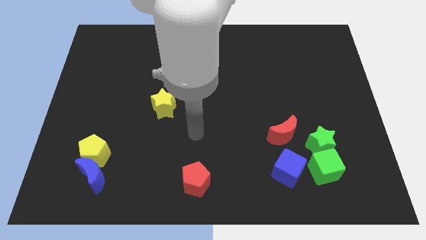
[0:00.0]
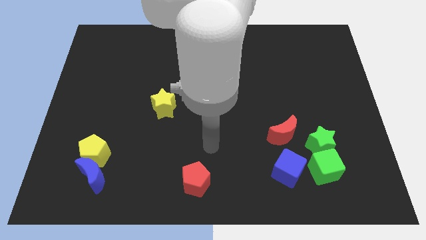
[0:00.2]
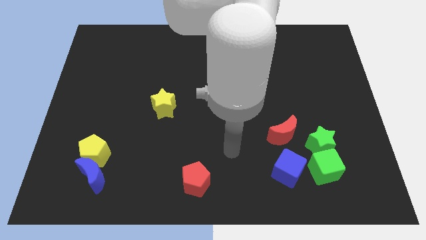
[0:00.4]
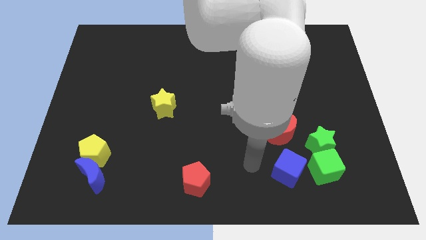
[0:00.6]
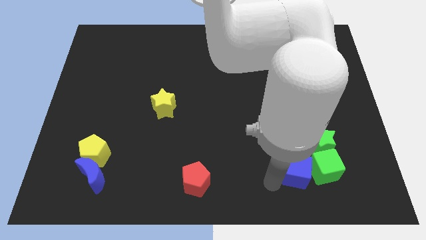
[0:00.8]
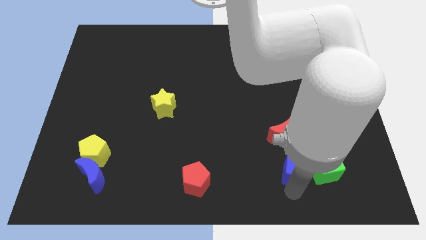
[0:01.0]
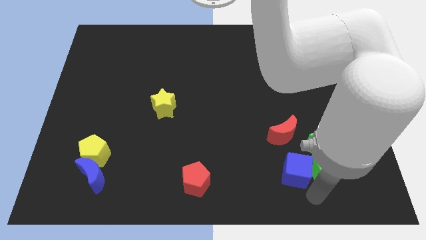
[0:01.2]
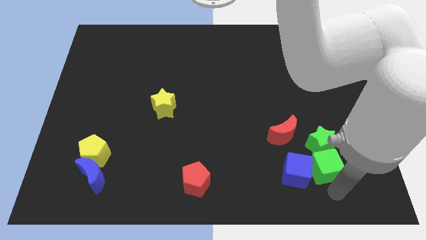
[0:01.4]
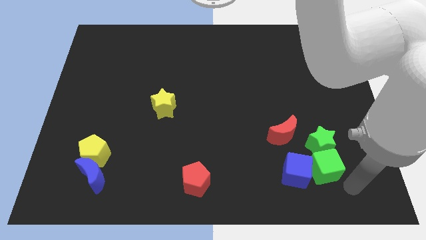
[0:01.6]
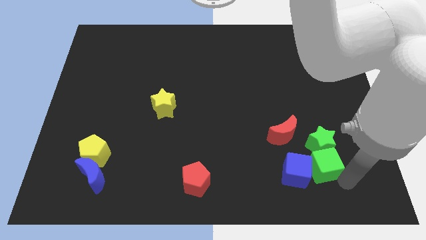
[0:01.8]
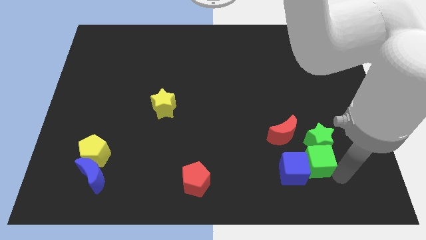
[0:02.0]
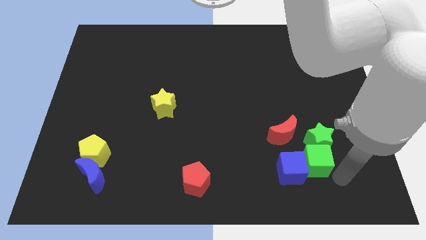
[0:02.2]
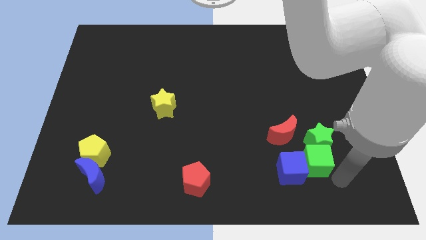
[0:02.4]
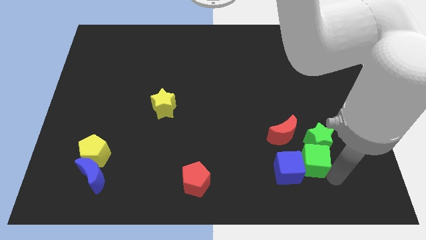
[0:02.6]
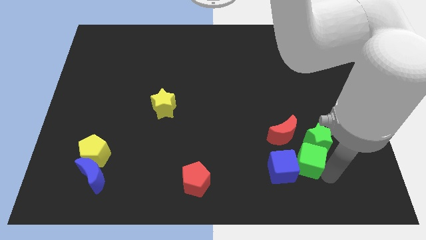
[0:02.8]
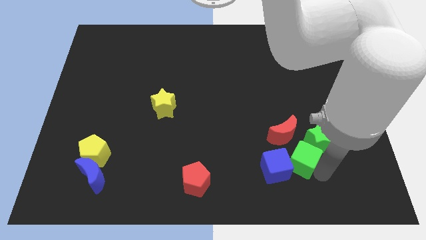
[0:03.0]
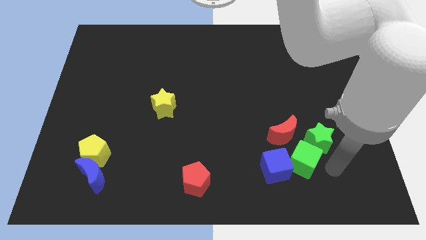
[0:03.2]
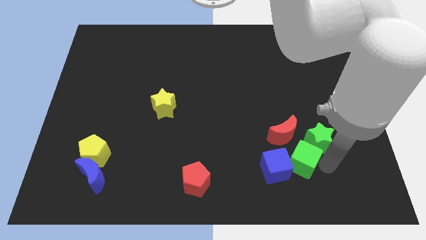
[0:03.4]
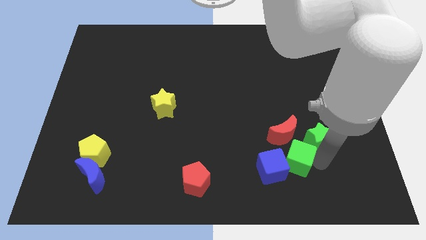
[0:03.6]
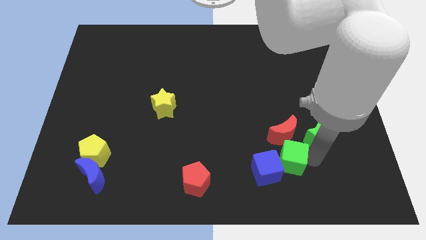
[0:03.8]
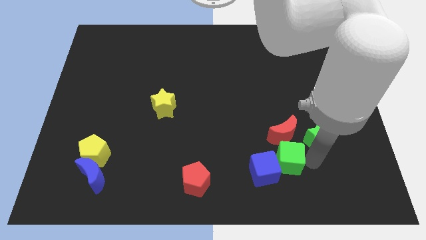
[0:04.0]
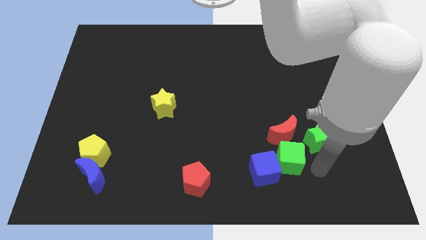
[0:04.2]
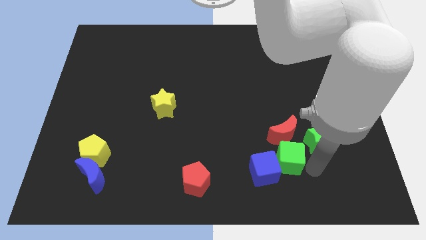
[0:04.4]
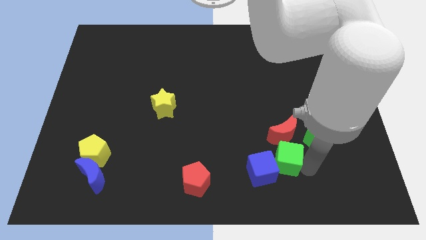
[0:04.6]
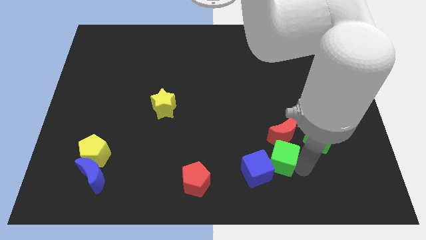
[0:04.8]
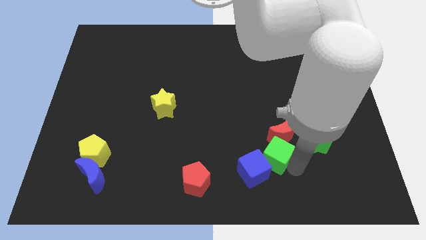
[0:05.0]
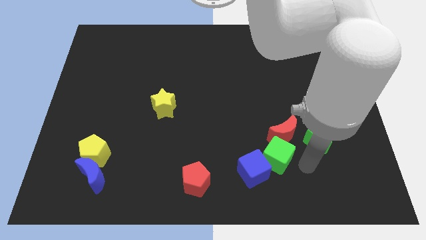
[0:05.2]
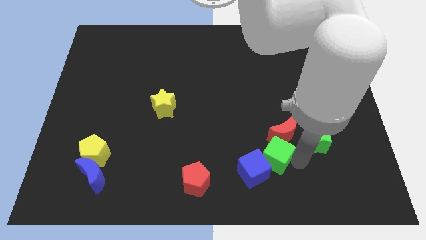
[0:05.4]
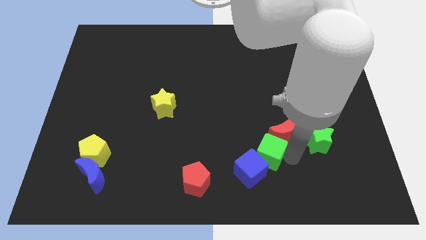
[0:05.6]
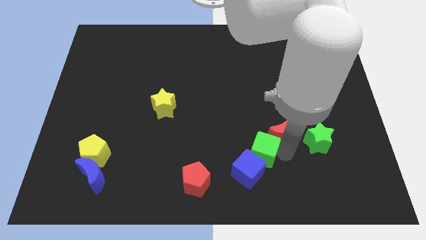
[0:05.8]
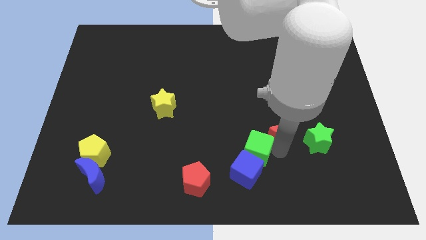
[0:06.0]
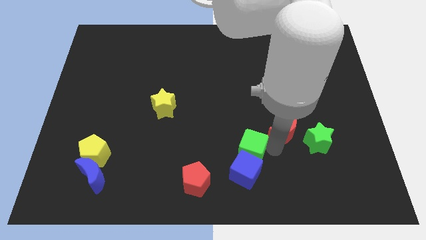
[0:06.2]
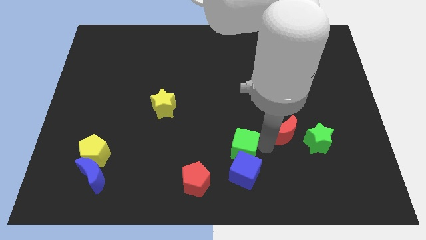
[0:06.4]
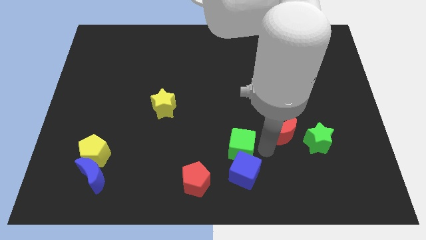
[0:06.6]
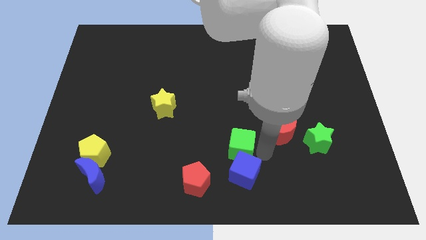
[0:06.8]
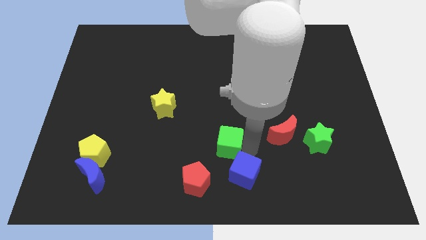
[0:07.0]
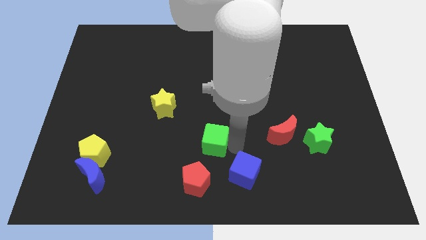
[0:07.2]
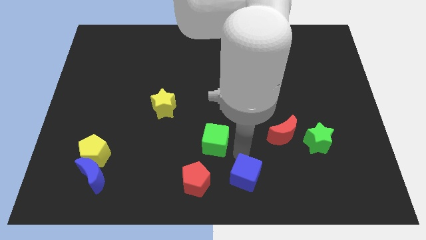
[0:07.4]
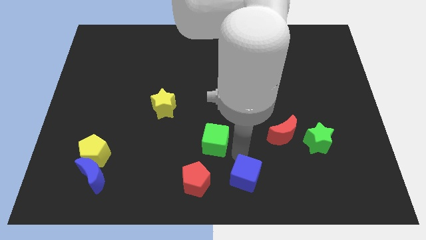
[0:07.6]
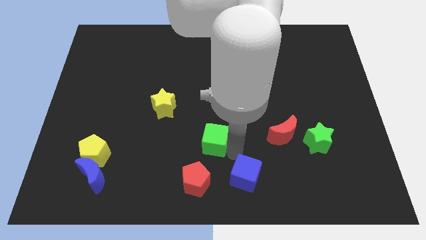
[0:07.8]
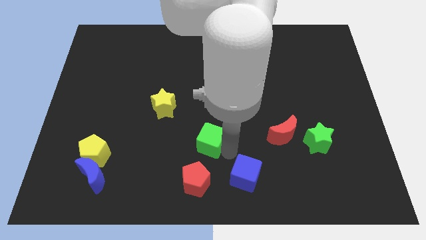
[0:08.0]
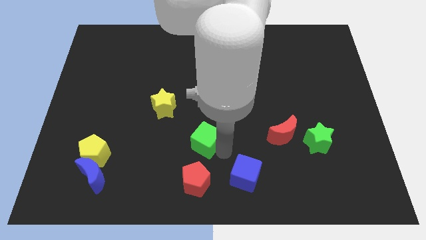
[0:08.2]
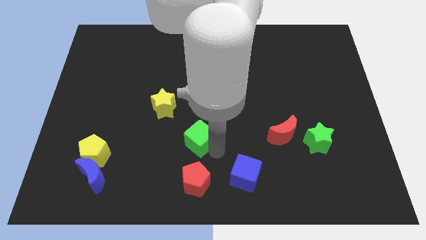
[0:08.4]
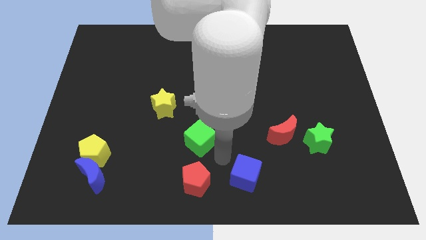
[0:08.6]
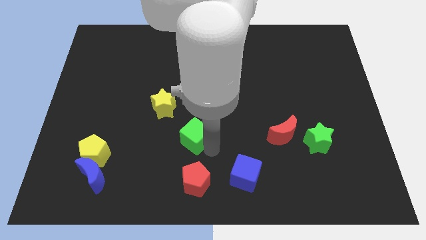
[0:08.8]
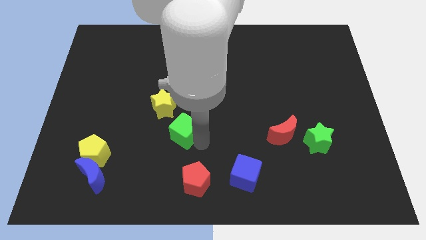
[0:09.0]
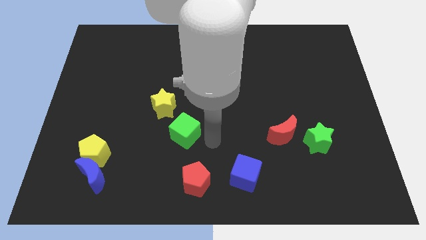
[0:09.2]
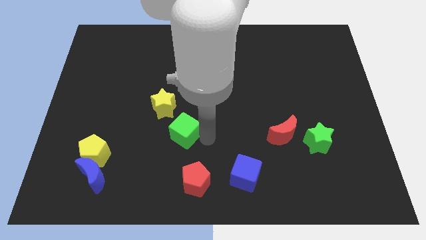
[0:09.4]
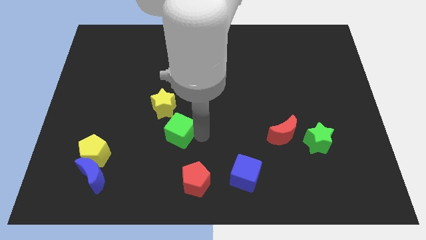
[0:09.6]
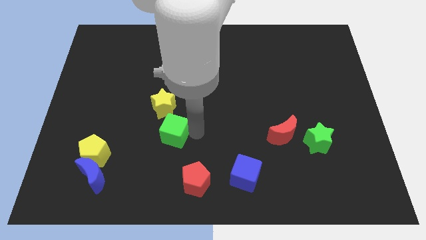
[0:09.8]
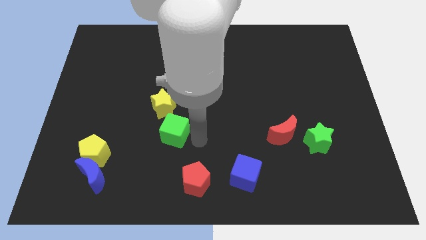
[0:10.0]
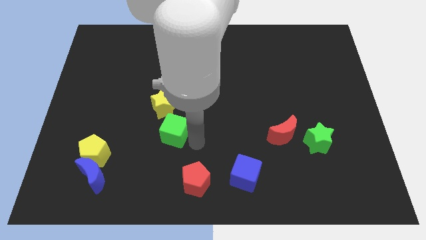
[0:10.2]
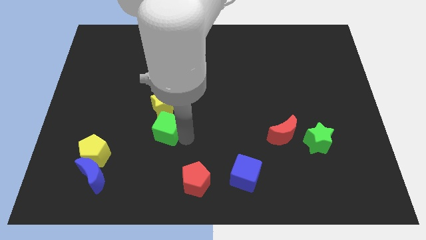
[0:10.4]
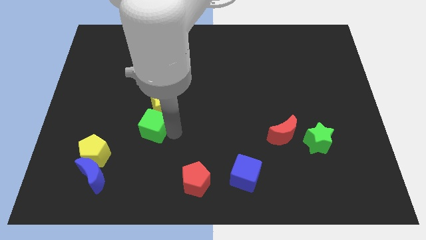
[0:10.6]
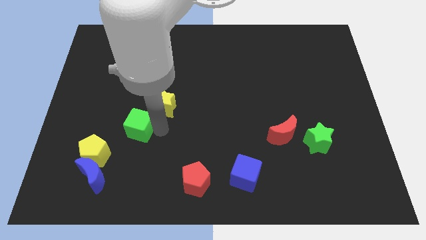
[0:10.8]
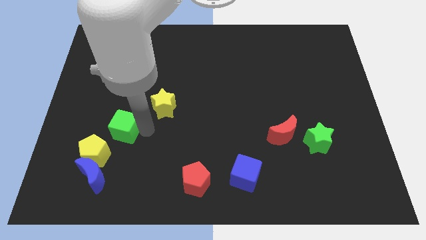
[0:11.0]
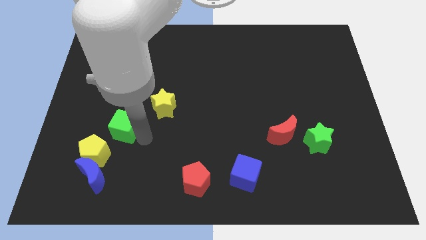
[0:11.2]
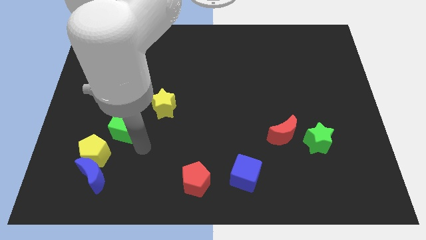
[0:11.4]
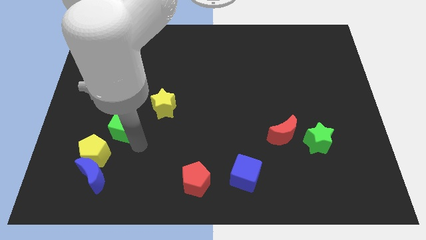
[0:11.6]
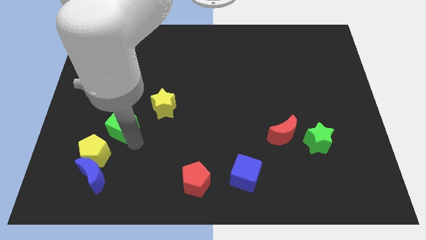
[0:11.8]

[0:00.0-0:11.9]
put the green cube to the top side of the yellow pentagon

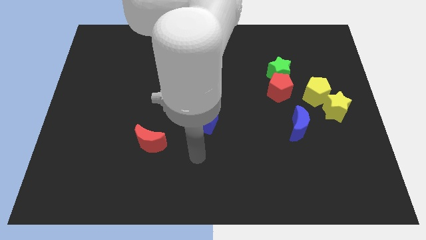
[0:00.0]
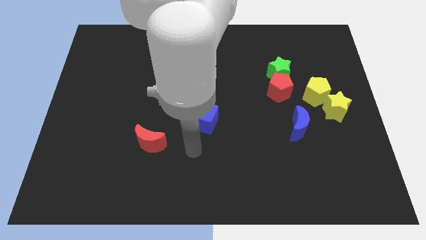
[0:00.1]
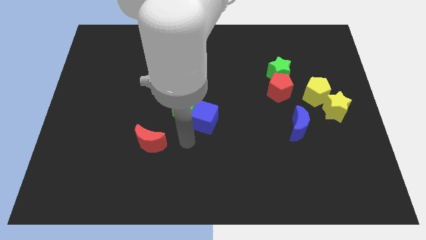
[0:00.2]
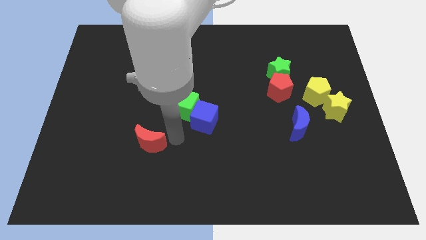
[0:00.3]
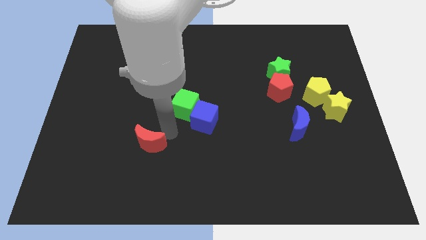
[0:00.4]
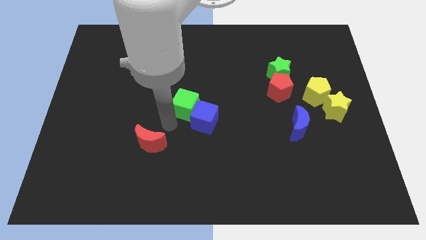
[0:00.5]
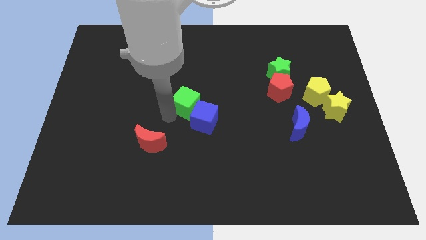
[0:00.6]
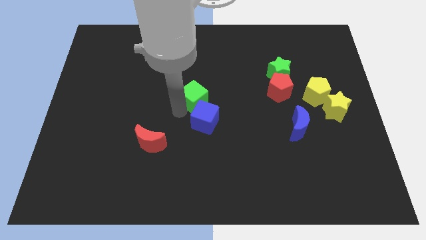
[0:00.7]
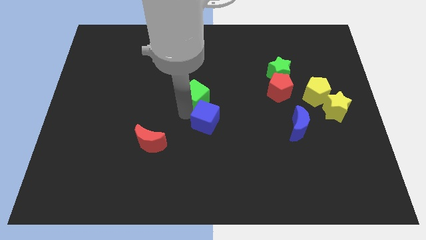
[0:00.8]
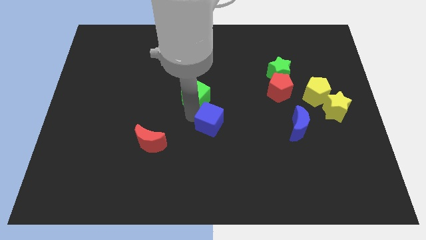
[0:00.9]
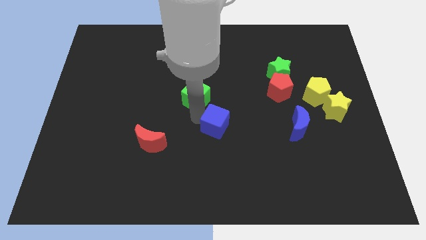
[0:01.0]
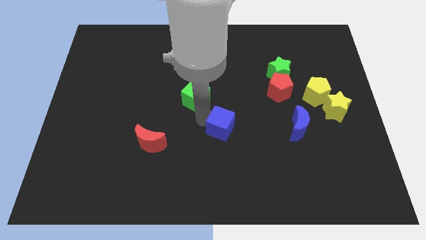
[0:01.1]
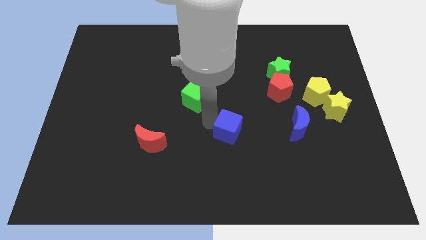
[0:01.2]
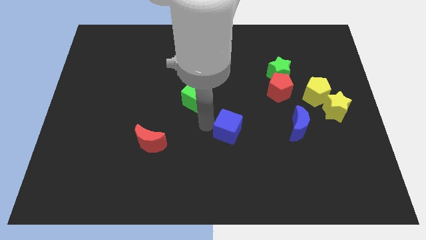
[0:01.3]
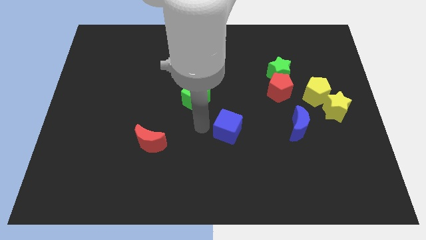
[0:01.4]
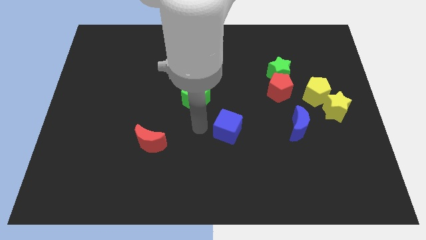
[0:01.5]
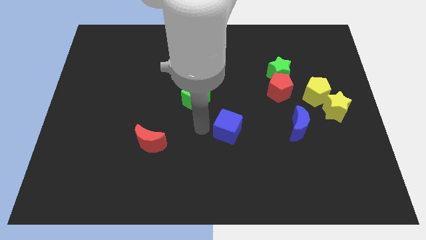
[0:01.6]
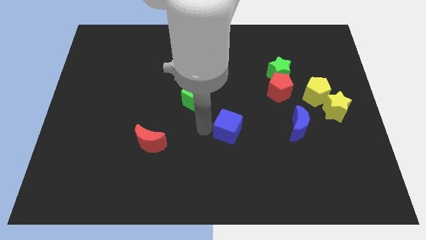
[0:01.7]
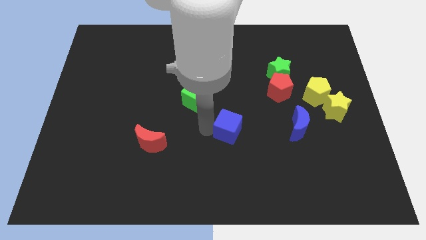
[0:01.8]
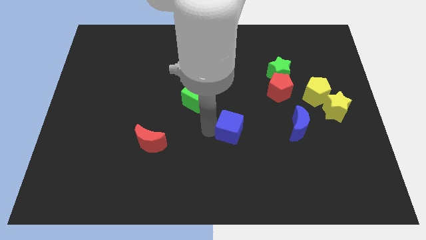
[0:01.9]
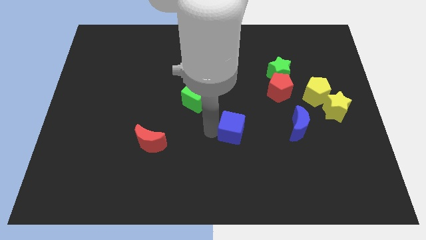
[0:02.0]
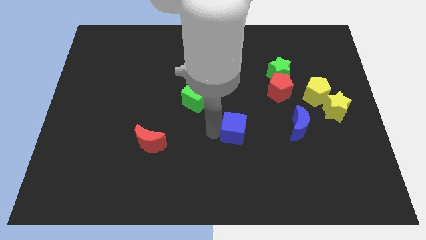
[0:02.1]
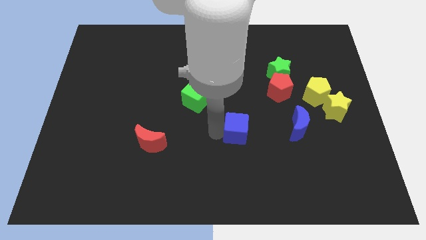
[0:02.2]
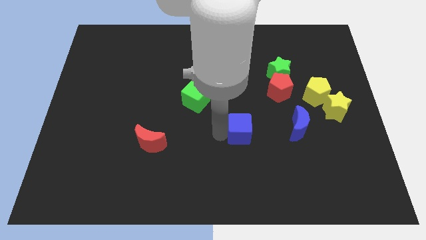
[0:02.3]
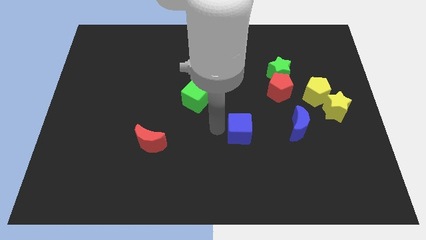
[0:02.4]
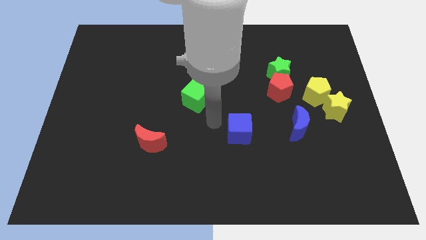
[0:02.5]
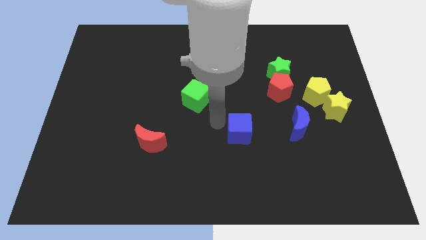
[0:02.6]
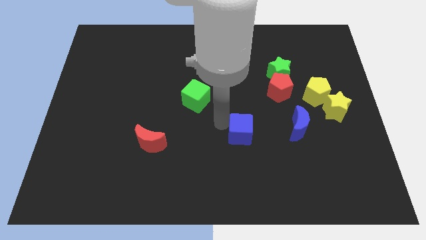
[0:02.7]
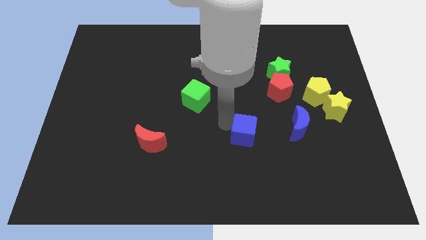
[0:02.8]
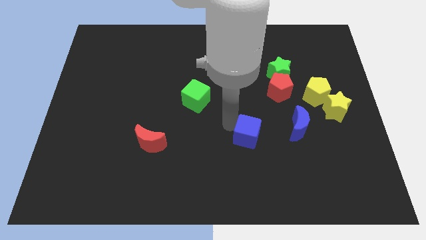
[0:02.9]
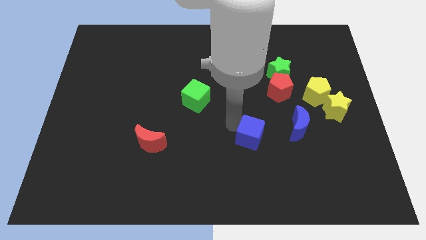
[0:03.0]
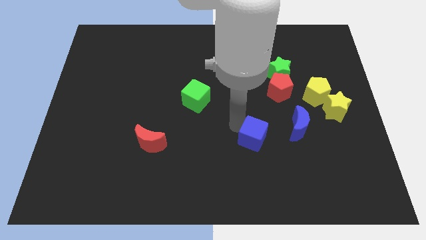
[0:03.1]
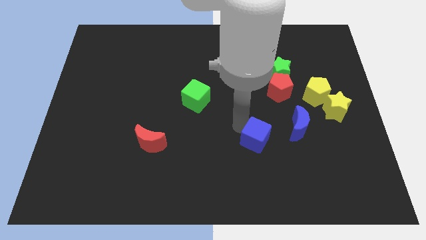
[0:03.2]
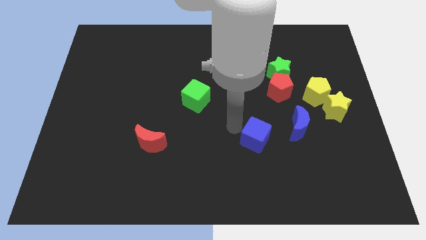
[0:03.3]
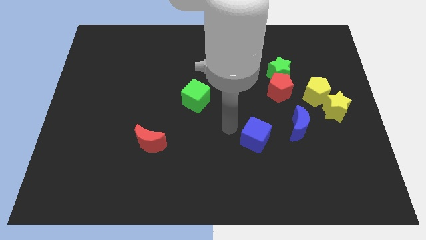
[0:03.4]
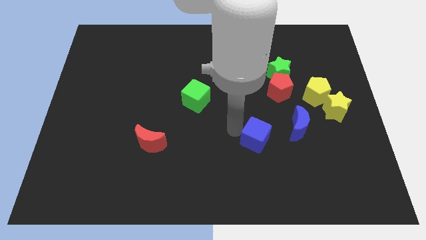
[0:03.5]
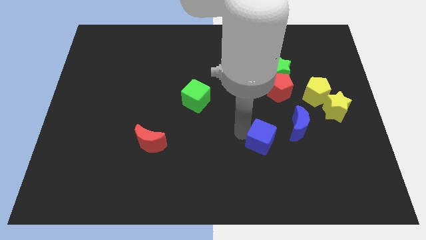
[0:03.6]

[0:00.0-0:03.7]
slide the blue cube to the bottom left of the blue moon
